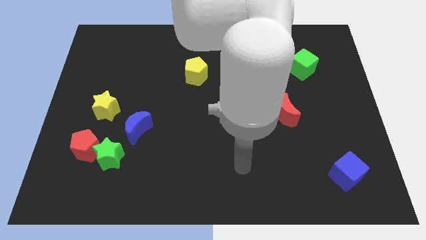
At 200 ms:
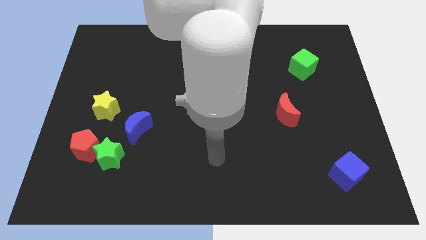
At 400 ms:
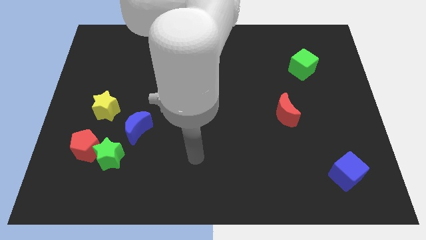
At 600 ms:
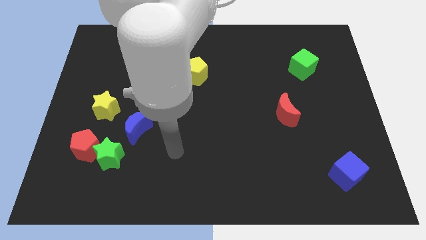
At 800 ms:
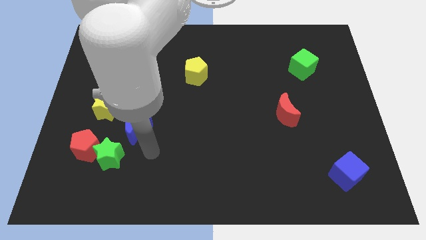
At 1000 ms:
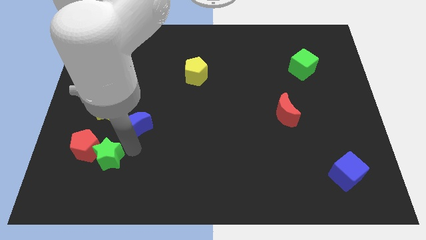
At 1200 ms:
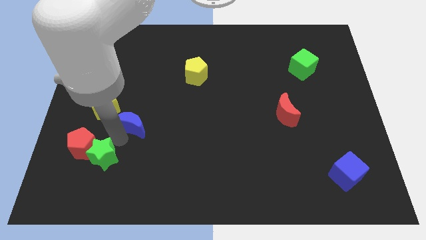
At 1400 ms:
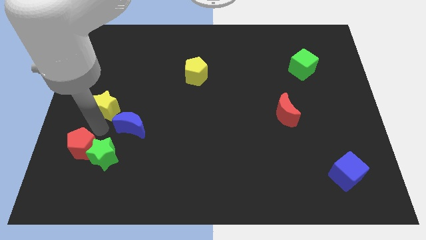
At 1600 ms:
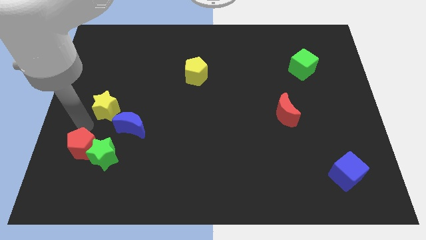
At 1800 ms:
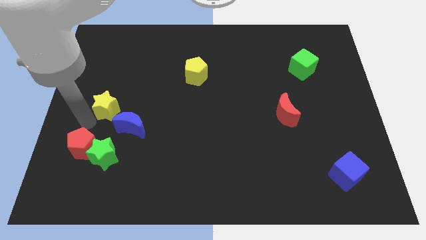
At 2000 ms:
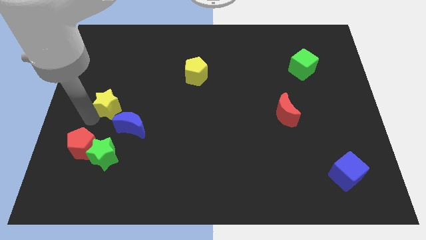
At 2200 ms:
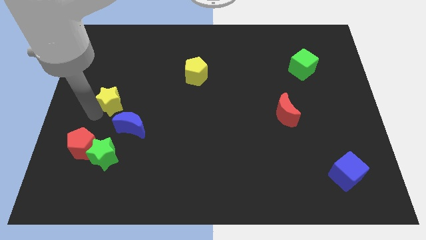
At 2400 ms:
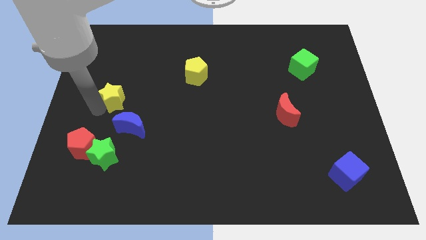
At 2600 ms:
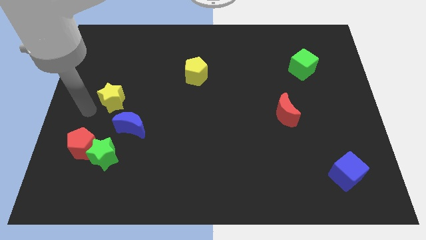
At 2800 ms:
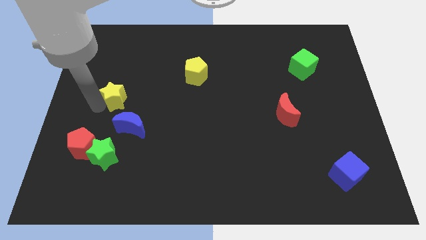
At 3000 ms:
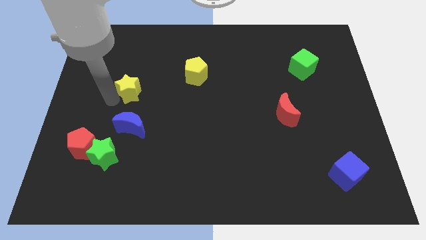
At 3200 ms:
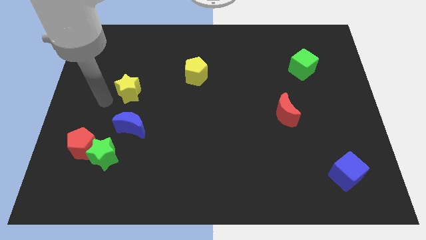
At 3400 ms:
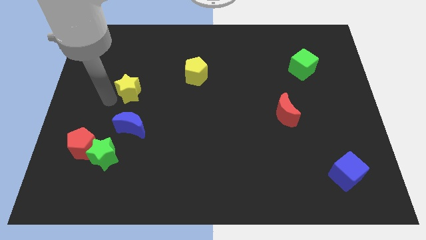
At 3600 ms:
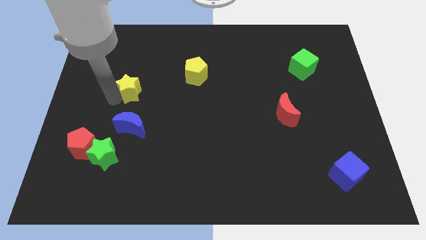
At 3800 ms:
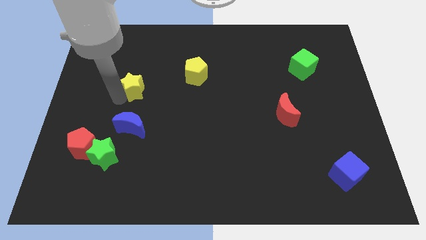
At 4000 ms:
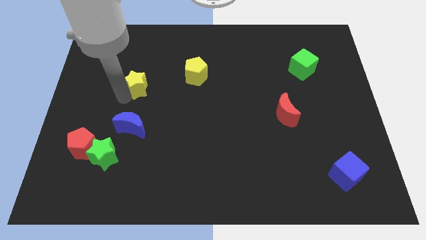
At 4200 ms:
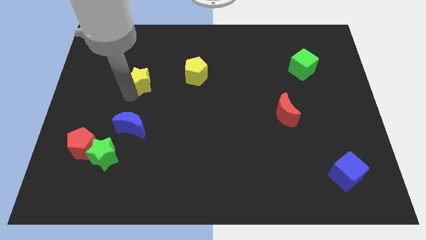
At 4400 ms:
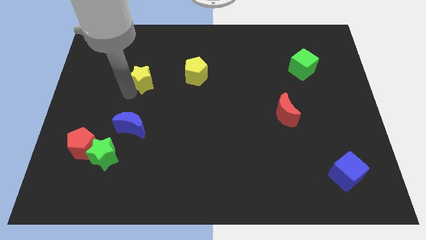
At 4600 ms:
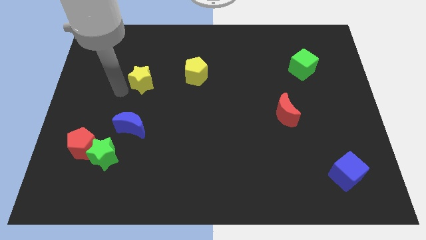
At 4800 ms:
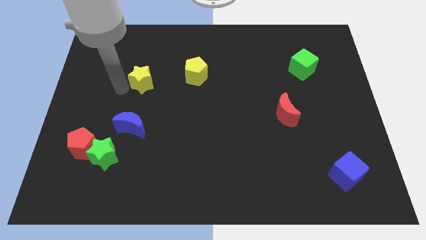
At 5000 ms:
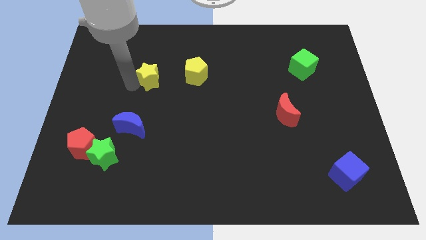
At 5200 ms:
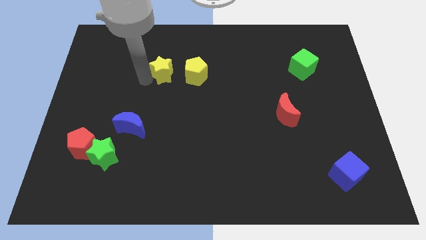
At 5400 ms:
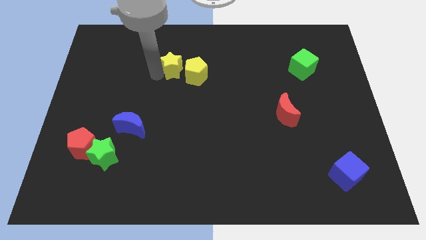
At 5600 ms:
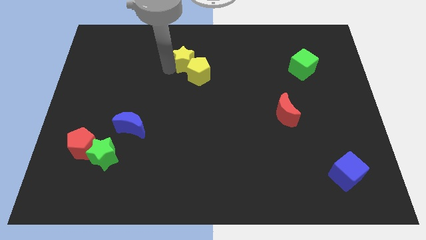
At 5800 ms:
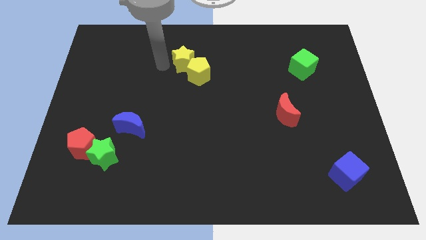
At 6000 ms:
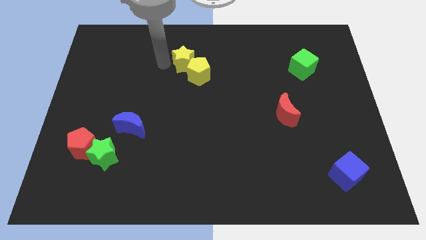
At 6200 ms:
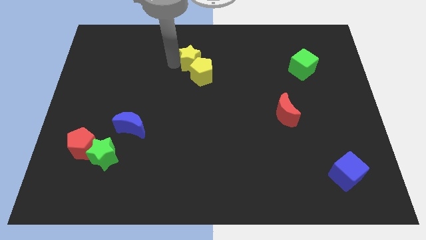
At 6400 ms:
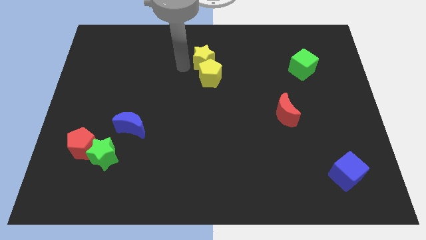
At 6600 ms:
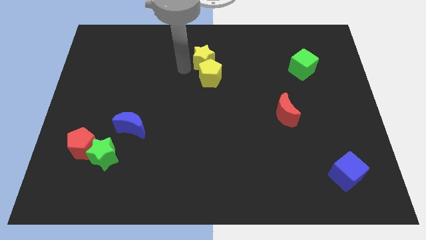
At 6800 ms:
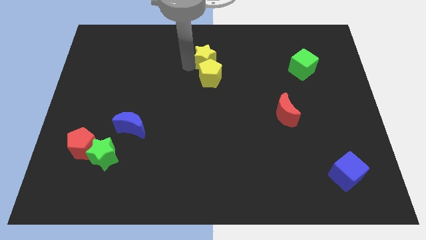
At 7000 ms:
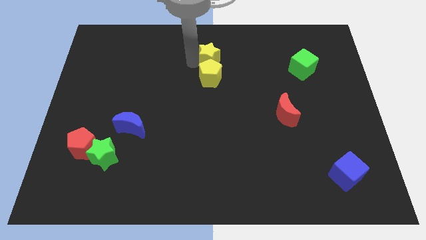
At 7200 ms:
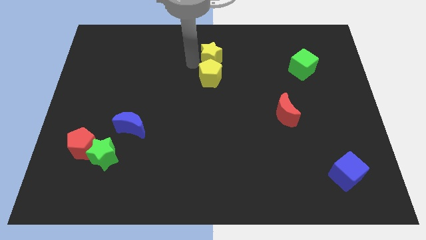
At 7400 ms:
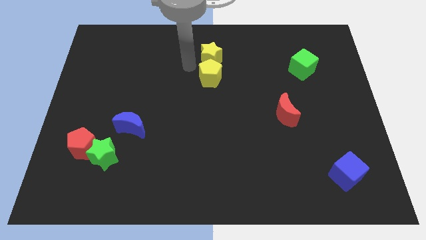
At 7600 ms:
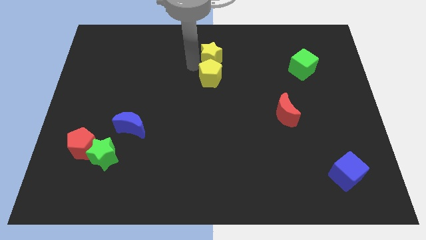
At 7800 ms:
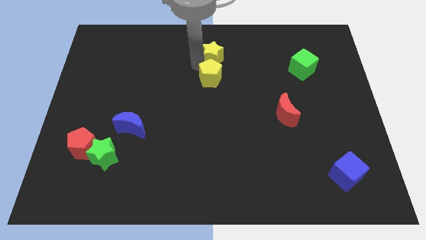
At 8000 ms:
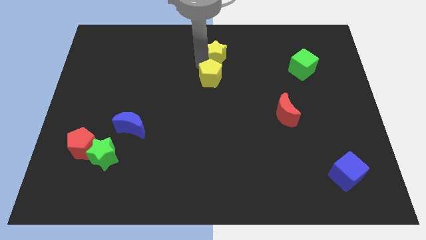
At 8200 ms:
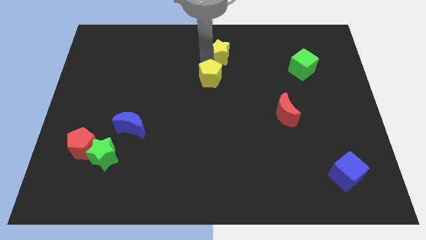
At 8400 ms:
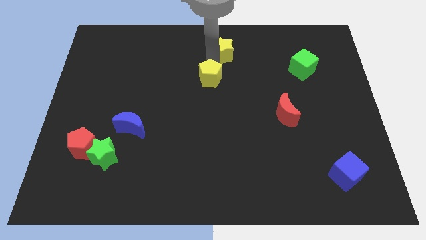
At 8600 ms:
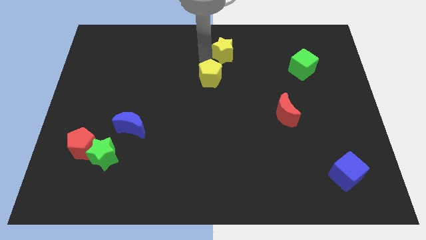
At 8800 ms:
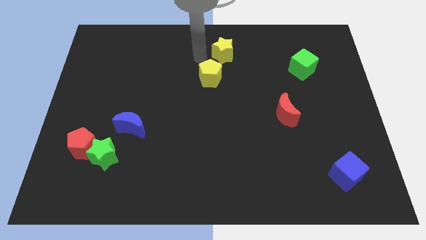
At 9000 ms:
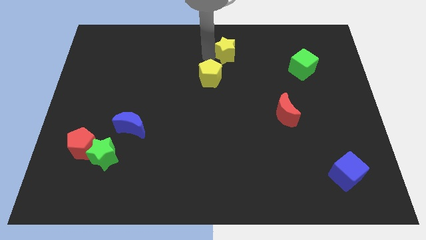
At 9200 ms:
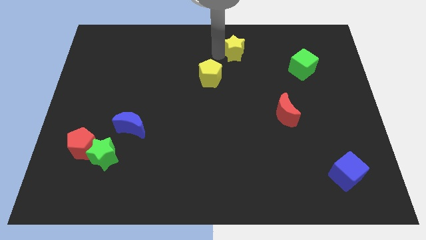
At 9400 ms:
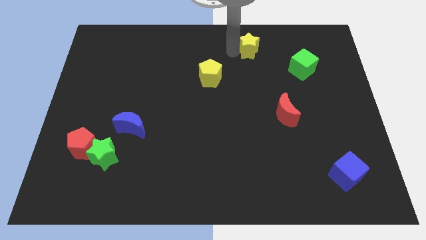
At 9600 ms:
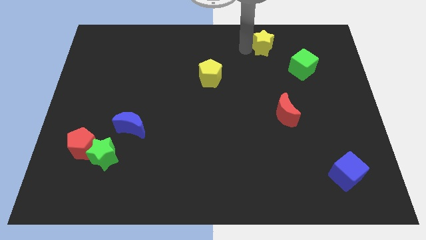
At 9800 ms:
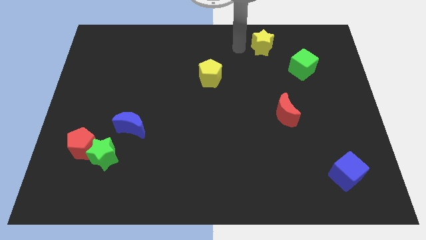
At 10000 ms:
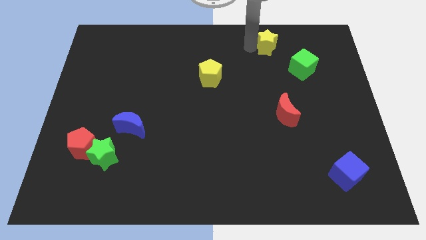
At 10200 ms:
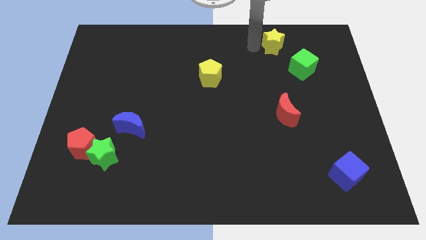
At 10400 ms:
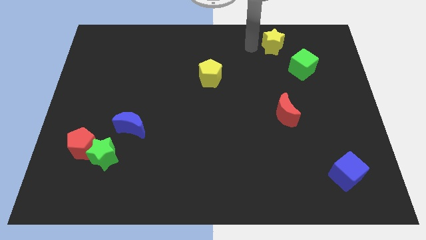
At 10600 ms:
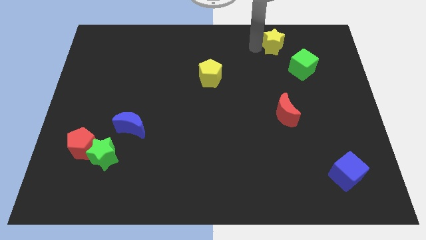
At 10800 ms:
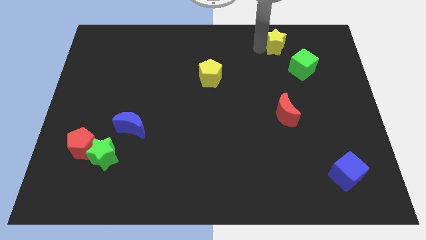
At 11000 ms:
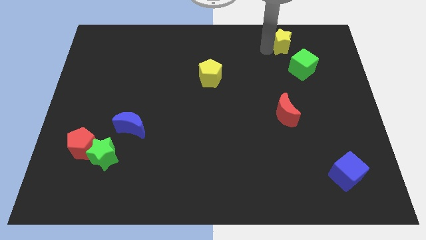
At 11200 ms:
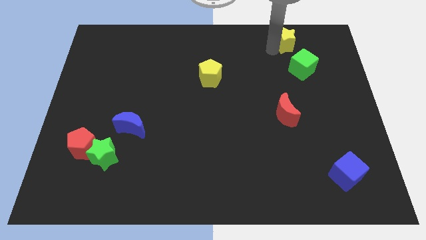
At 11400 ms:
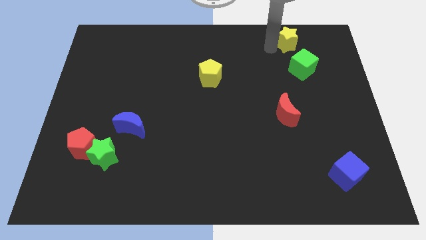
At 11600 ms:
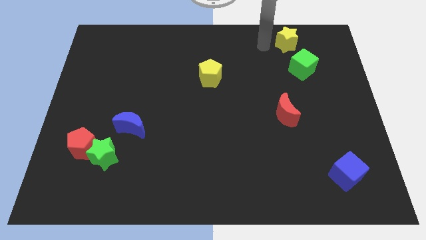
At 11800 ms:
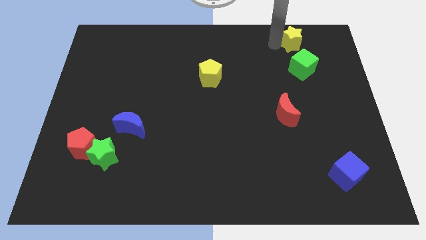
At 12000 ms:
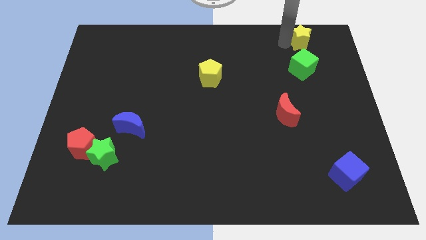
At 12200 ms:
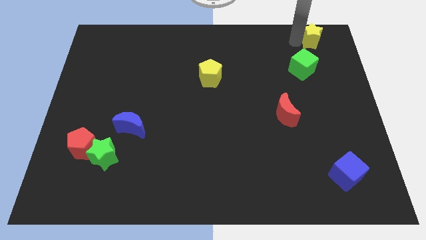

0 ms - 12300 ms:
push the yellow star to the top right of the board
